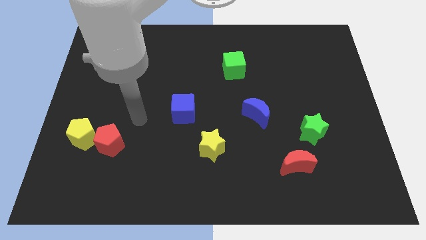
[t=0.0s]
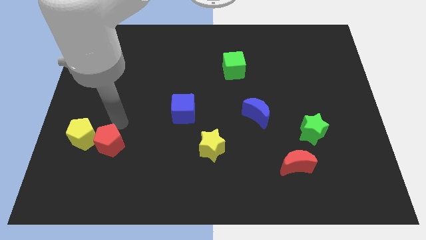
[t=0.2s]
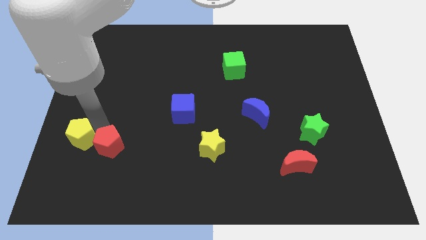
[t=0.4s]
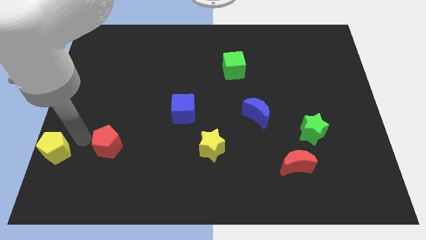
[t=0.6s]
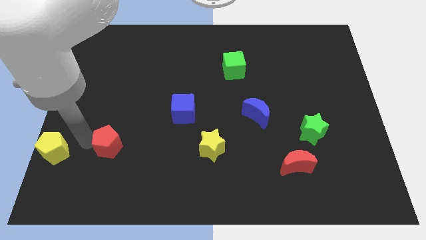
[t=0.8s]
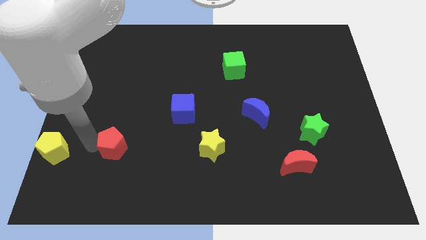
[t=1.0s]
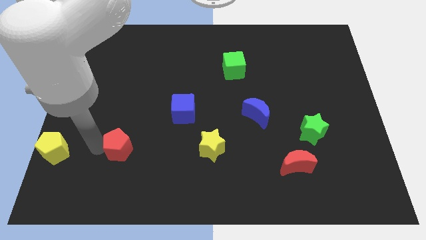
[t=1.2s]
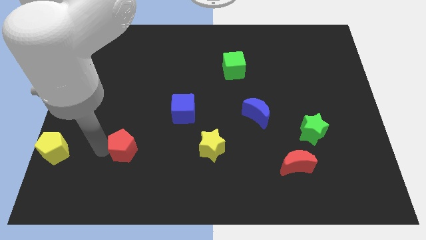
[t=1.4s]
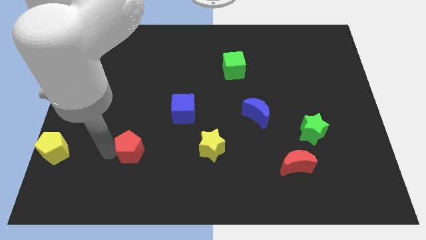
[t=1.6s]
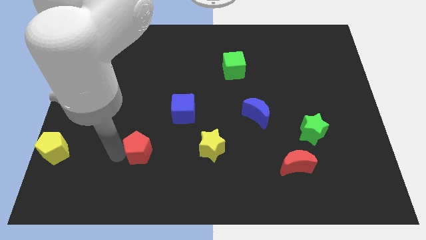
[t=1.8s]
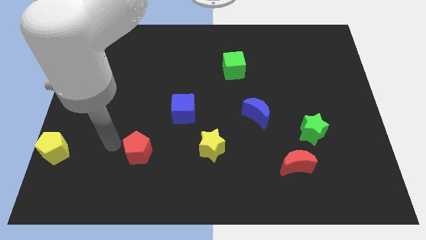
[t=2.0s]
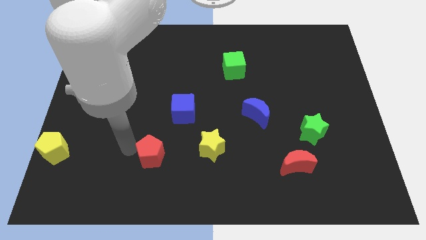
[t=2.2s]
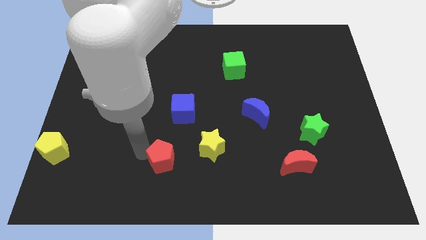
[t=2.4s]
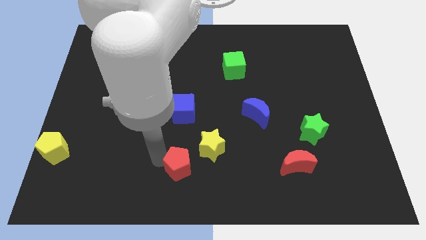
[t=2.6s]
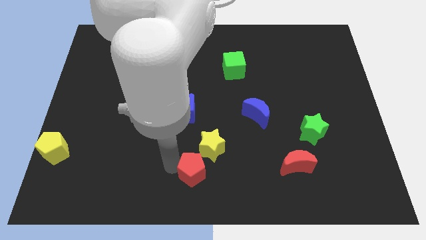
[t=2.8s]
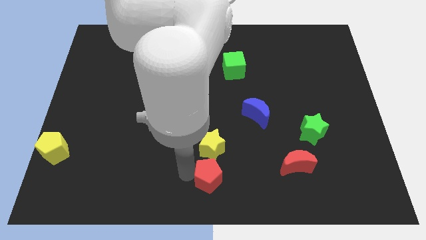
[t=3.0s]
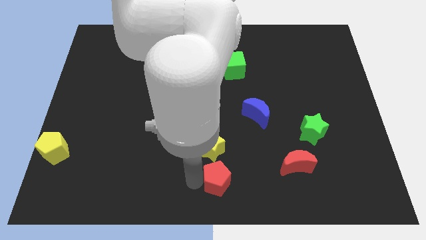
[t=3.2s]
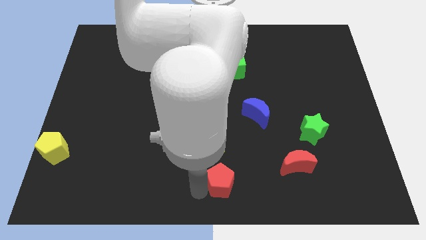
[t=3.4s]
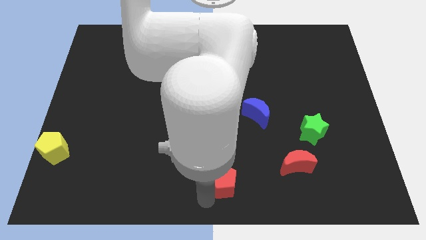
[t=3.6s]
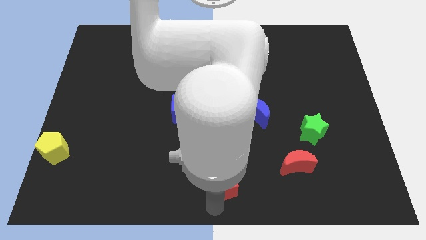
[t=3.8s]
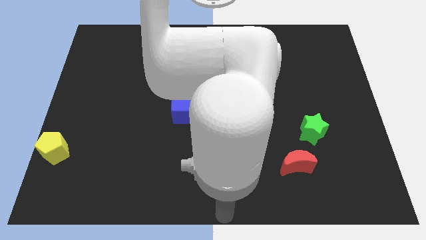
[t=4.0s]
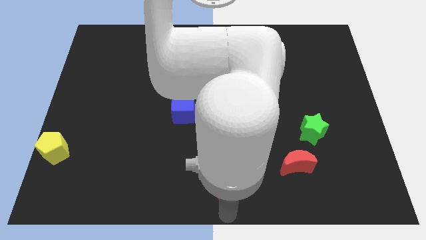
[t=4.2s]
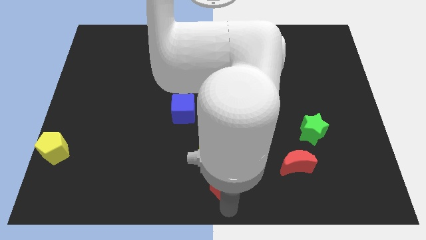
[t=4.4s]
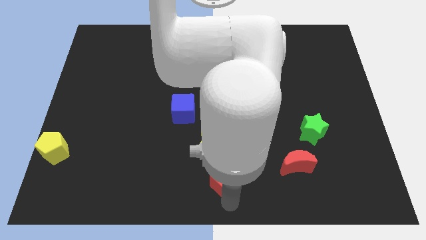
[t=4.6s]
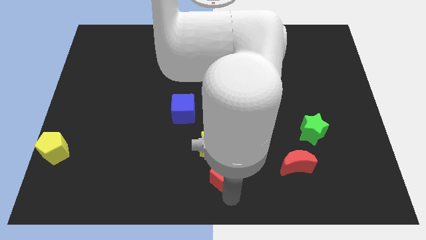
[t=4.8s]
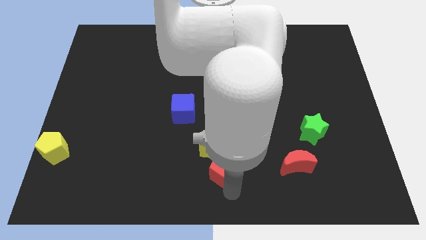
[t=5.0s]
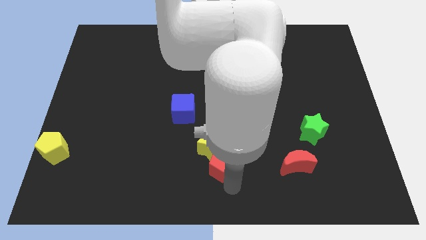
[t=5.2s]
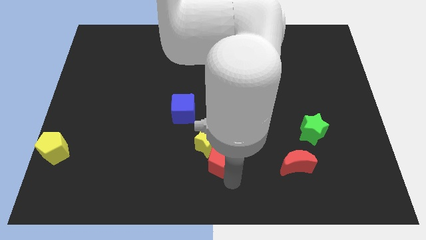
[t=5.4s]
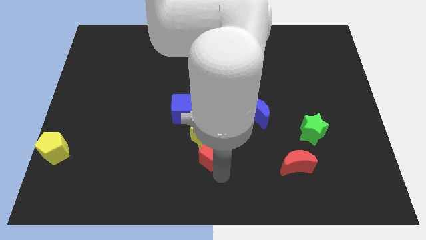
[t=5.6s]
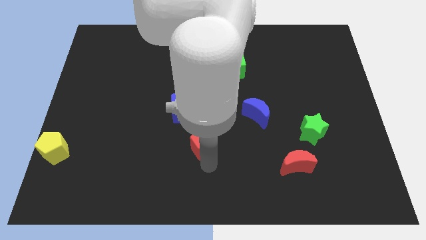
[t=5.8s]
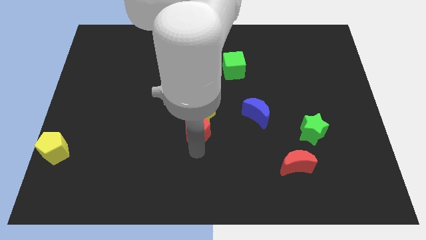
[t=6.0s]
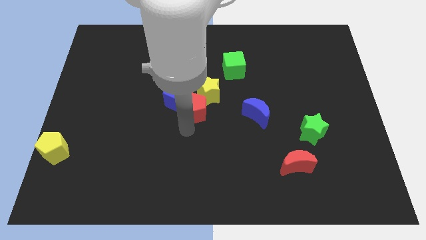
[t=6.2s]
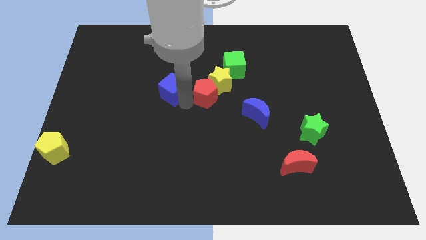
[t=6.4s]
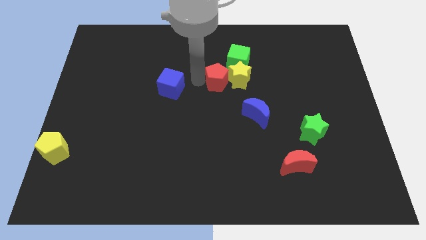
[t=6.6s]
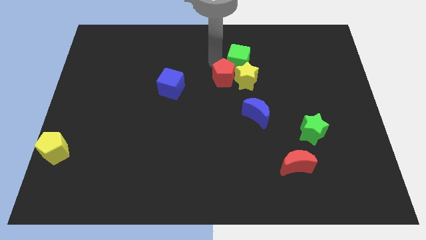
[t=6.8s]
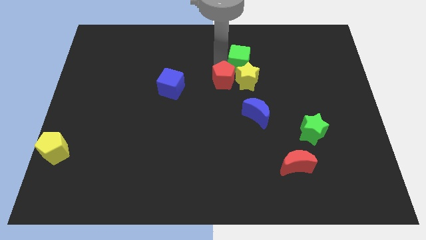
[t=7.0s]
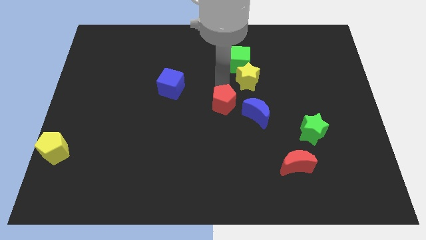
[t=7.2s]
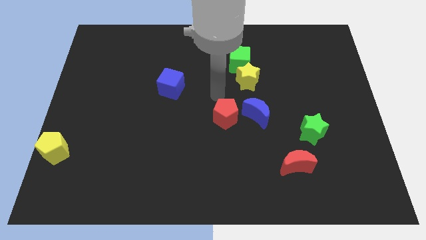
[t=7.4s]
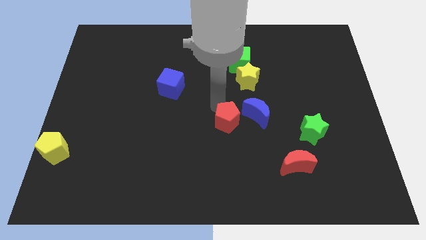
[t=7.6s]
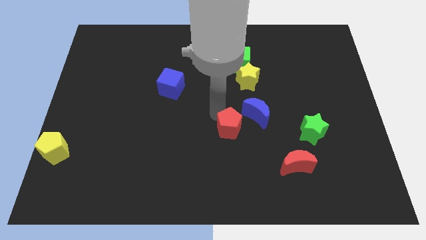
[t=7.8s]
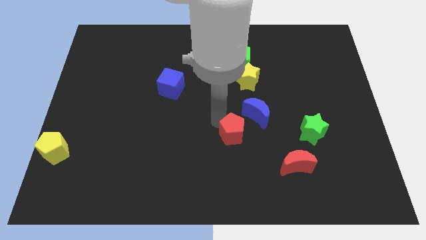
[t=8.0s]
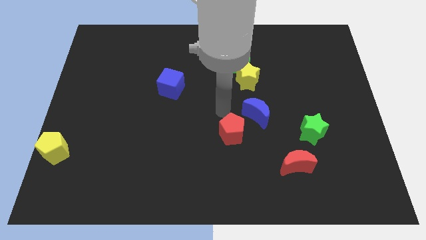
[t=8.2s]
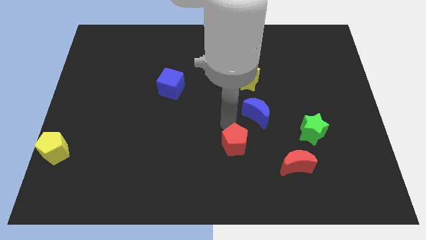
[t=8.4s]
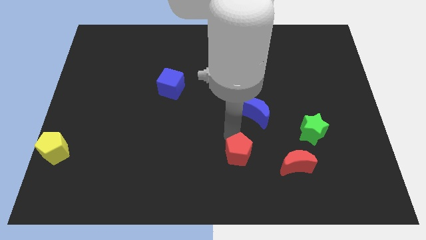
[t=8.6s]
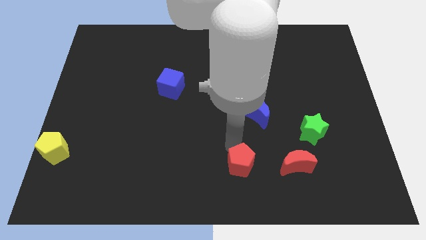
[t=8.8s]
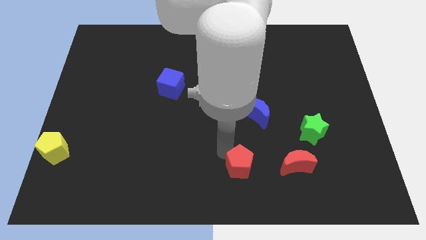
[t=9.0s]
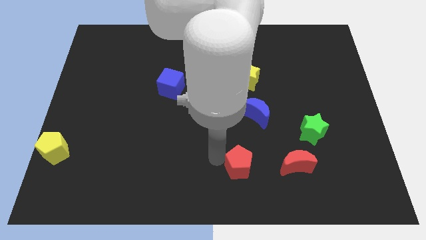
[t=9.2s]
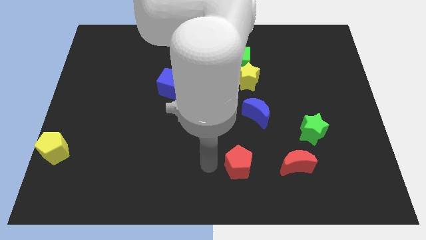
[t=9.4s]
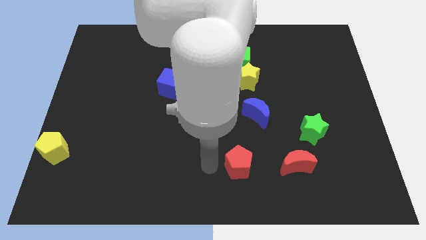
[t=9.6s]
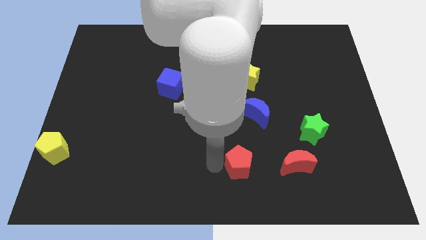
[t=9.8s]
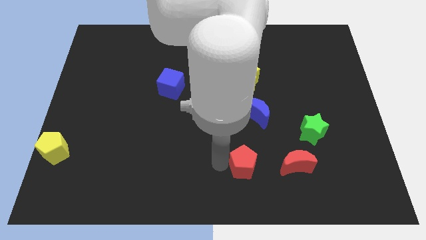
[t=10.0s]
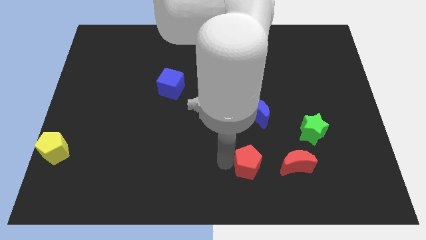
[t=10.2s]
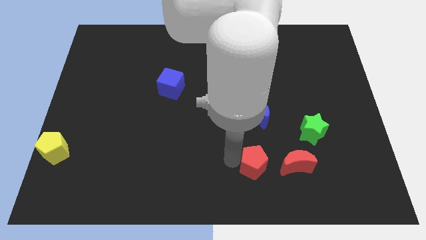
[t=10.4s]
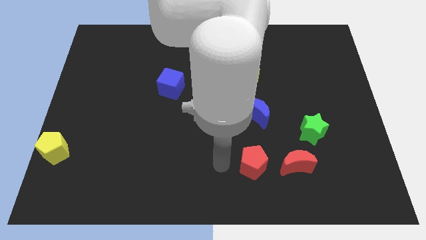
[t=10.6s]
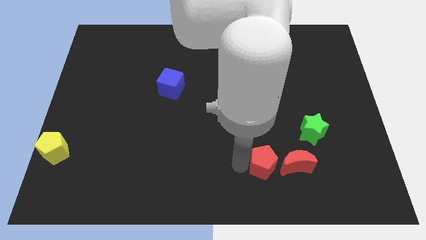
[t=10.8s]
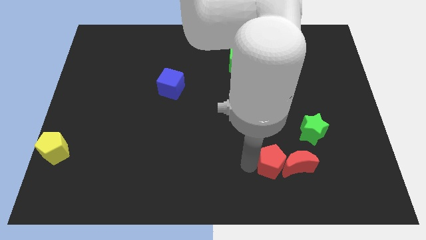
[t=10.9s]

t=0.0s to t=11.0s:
push the red pentagon towards the red moon

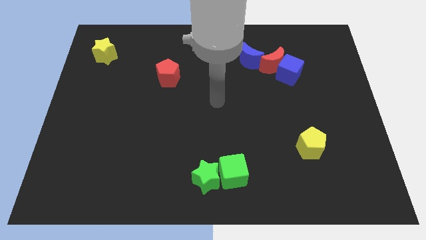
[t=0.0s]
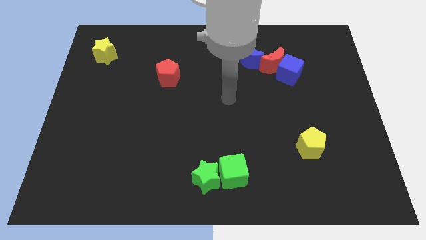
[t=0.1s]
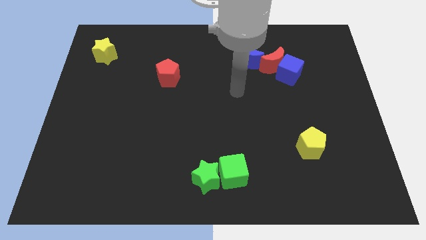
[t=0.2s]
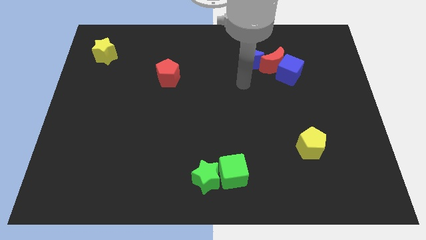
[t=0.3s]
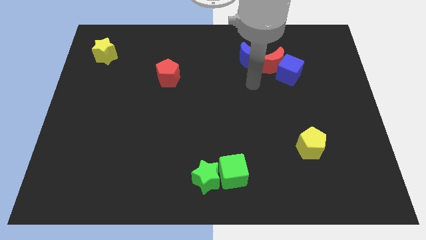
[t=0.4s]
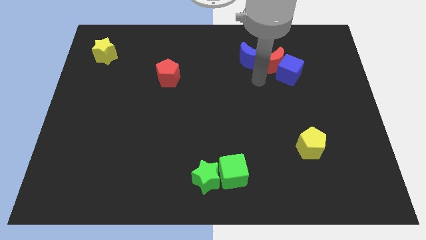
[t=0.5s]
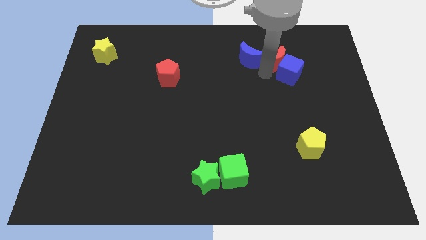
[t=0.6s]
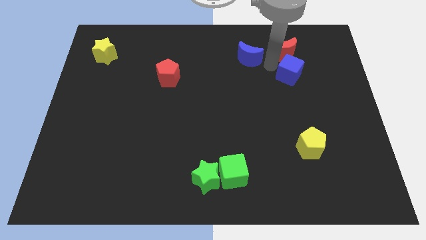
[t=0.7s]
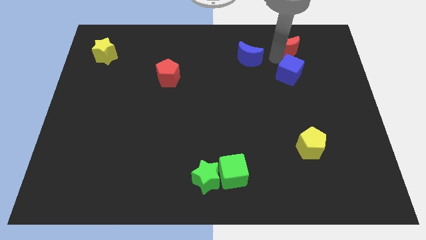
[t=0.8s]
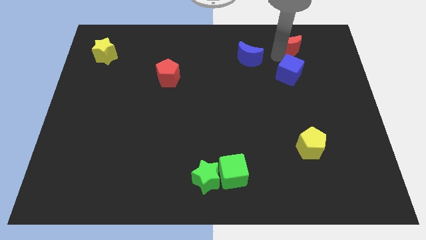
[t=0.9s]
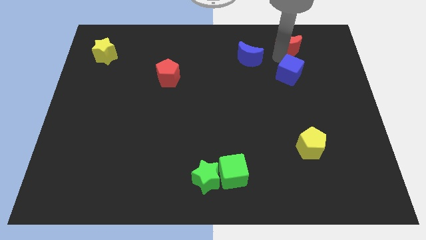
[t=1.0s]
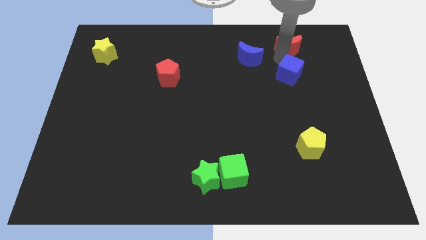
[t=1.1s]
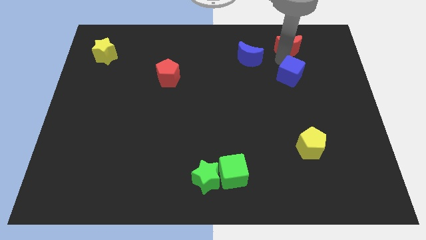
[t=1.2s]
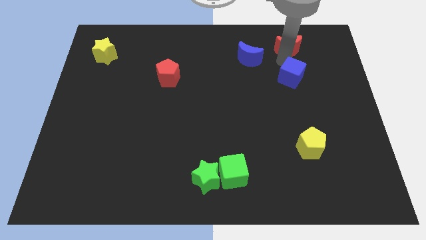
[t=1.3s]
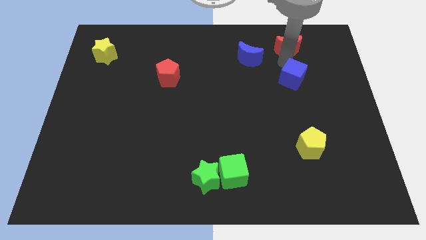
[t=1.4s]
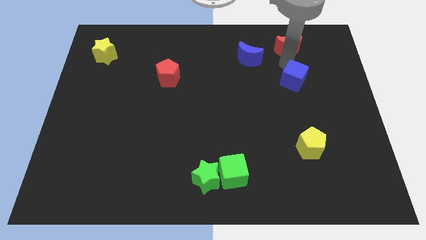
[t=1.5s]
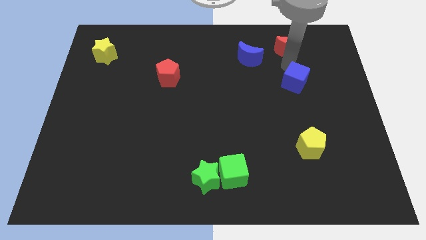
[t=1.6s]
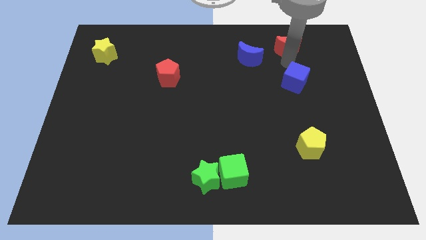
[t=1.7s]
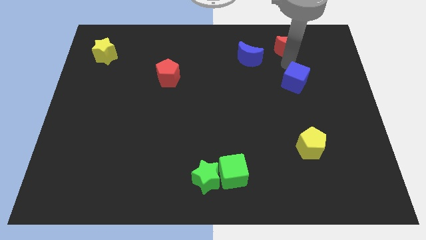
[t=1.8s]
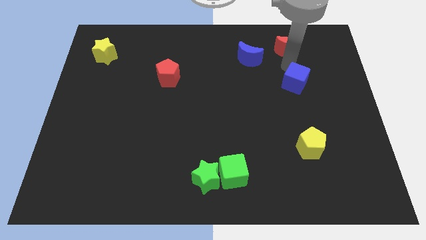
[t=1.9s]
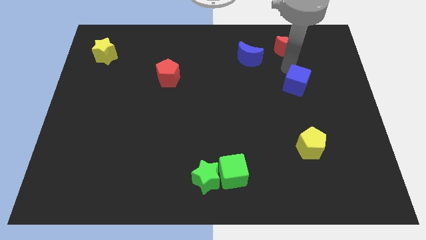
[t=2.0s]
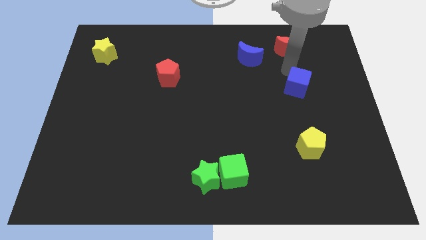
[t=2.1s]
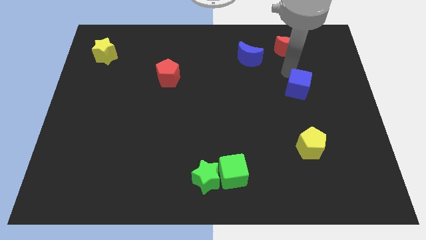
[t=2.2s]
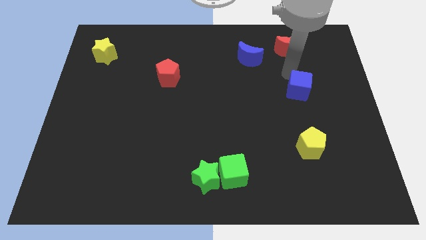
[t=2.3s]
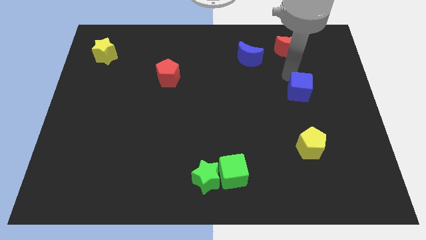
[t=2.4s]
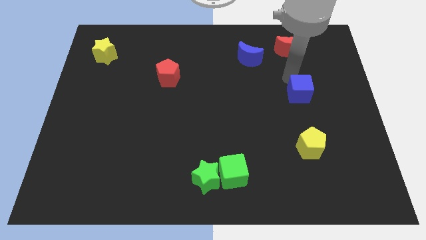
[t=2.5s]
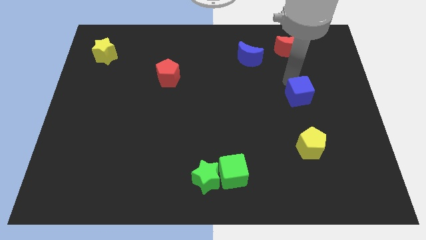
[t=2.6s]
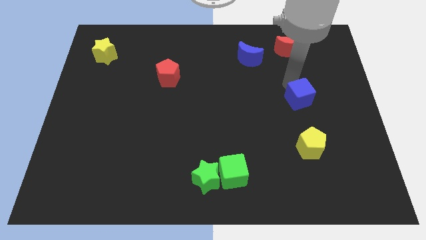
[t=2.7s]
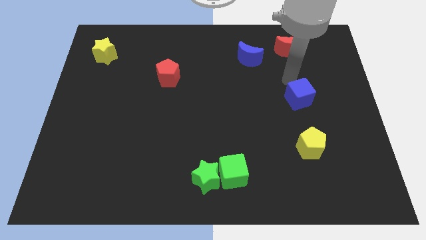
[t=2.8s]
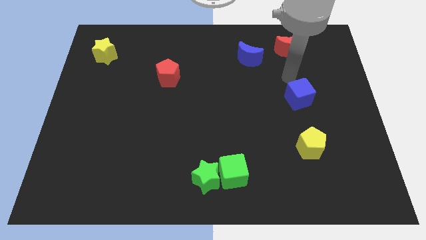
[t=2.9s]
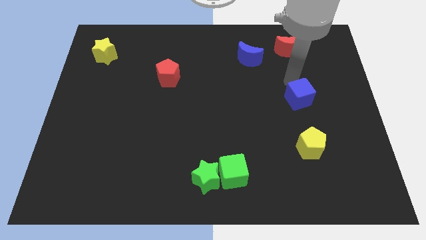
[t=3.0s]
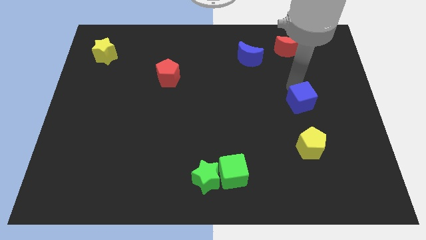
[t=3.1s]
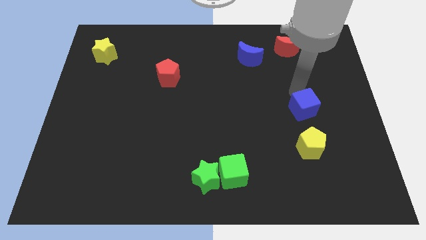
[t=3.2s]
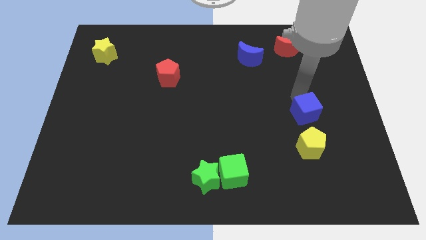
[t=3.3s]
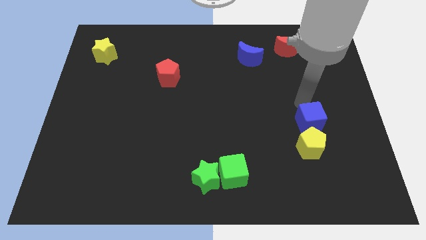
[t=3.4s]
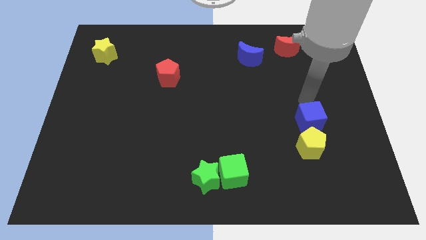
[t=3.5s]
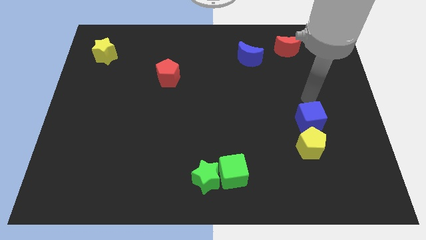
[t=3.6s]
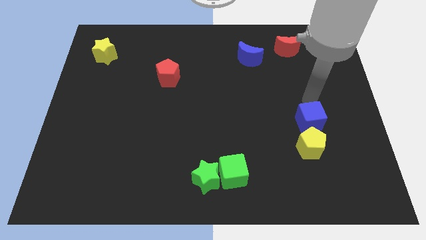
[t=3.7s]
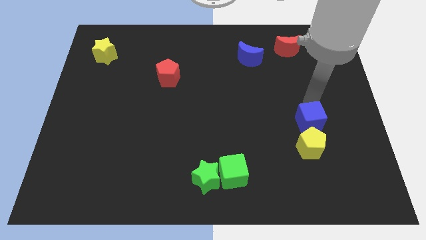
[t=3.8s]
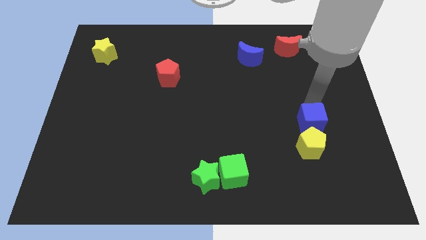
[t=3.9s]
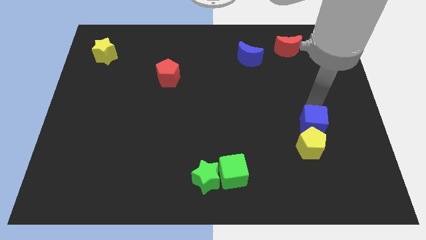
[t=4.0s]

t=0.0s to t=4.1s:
put the blue cube to the yellow pentagon
